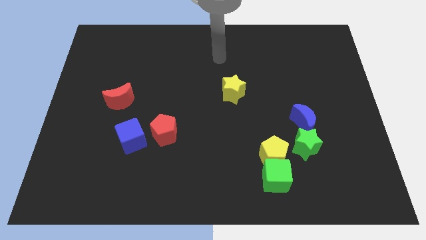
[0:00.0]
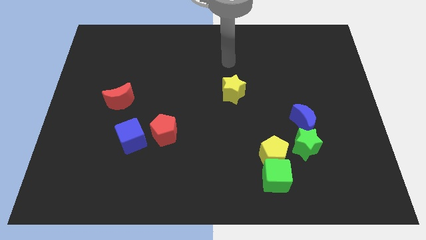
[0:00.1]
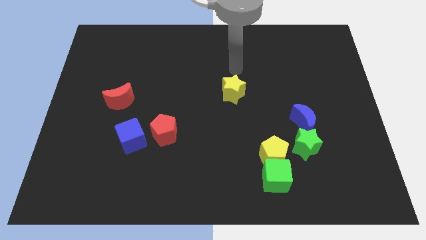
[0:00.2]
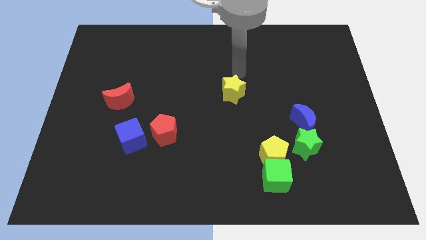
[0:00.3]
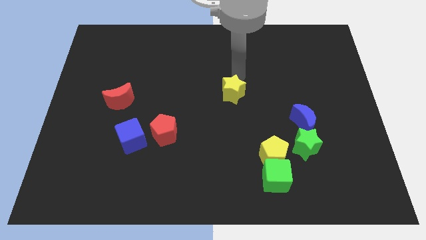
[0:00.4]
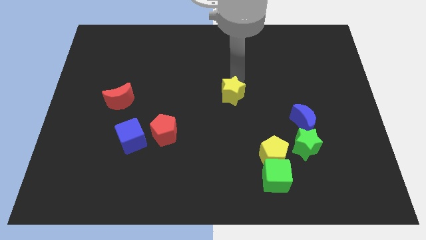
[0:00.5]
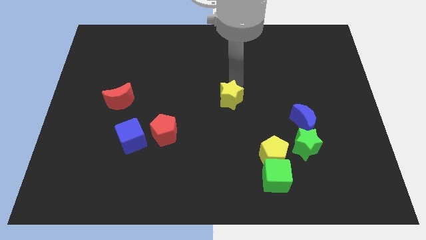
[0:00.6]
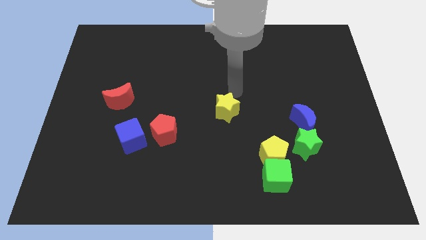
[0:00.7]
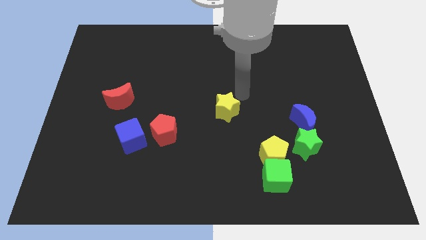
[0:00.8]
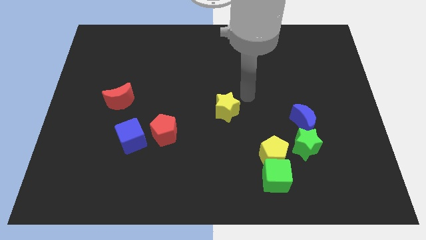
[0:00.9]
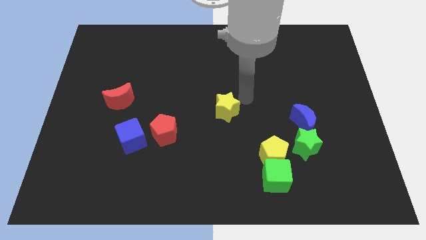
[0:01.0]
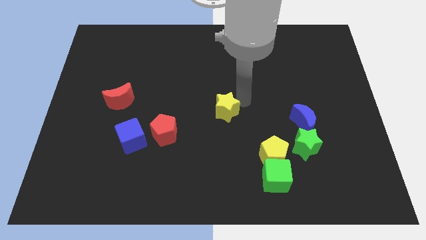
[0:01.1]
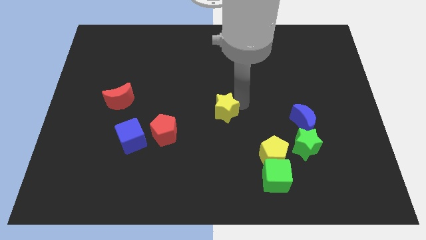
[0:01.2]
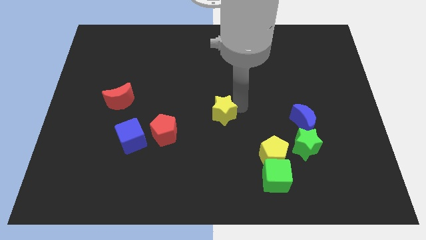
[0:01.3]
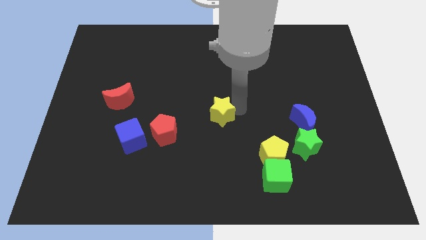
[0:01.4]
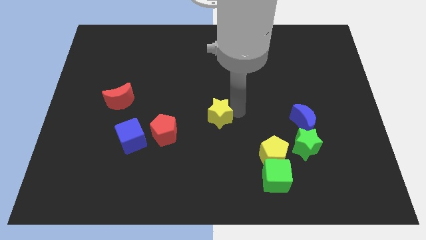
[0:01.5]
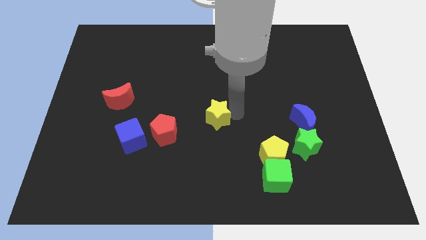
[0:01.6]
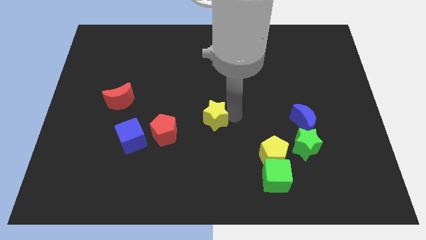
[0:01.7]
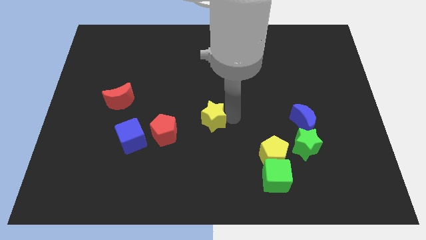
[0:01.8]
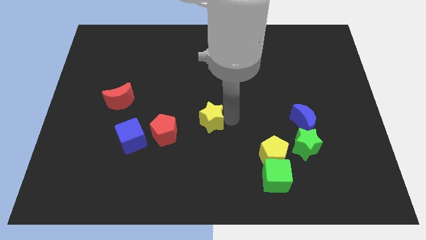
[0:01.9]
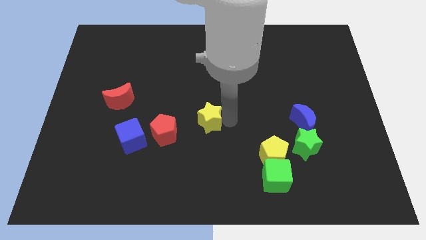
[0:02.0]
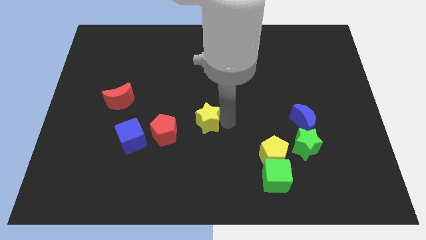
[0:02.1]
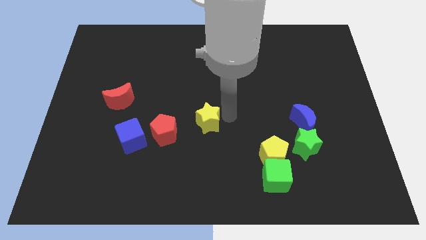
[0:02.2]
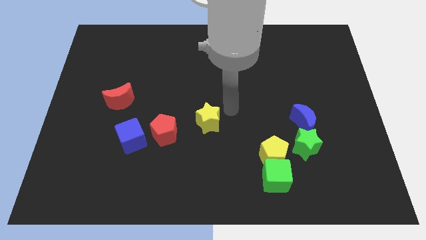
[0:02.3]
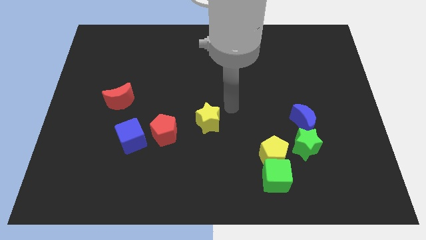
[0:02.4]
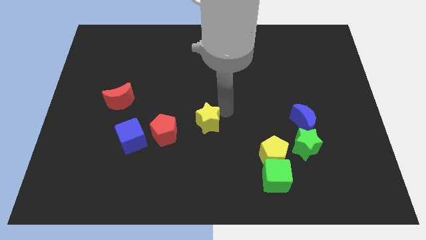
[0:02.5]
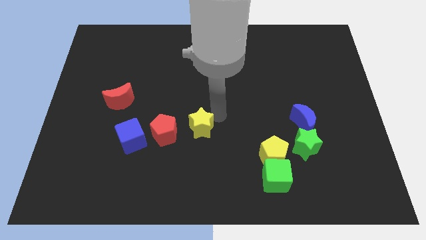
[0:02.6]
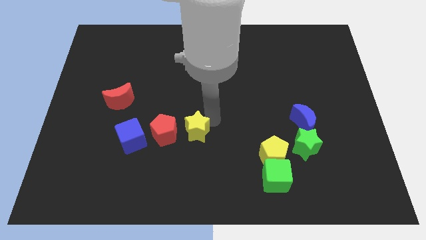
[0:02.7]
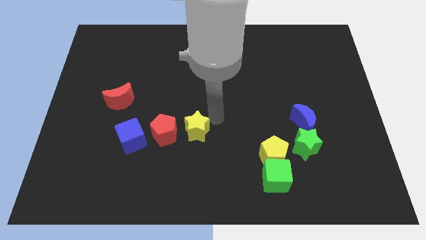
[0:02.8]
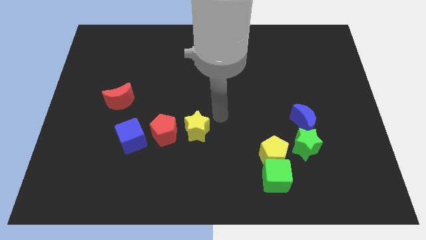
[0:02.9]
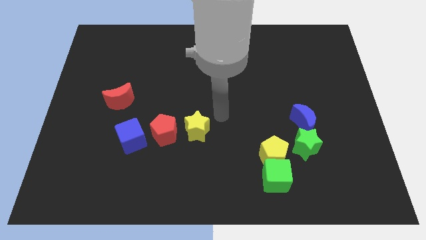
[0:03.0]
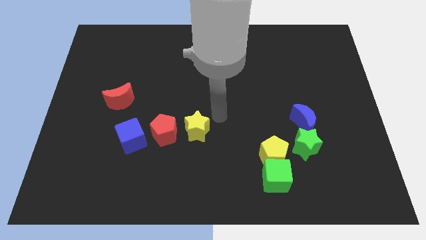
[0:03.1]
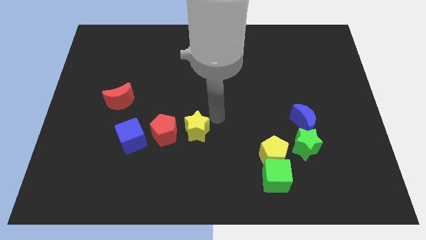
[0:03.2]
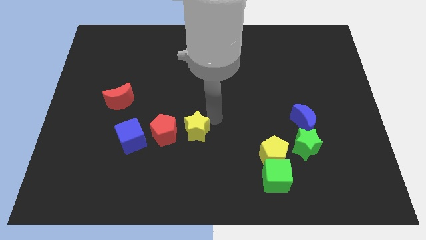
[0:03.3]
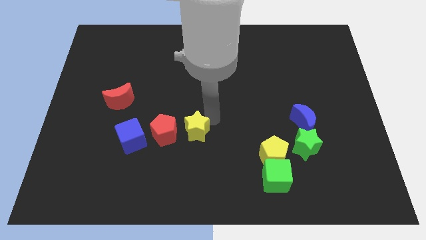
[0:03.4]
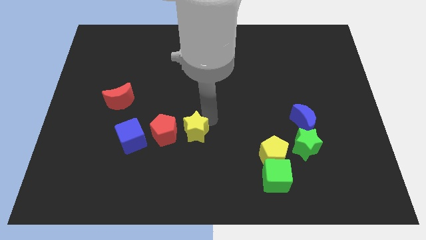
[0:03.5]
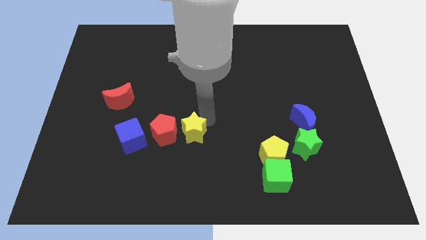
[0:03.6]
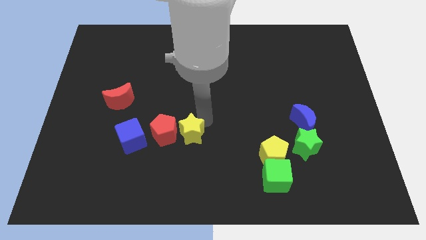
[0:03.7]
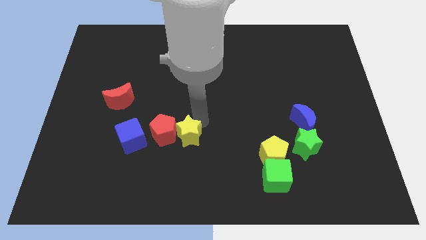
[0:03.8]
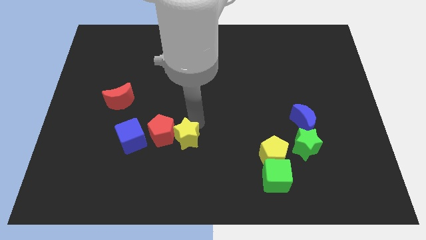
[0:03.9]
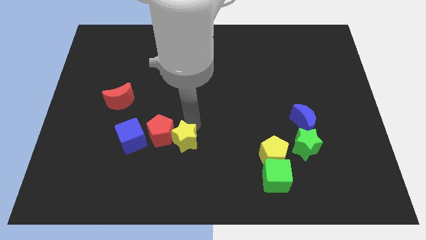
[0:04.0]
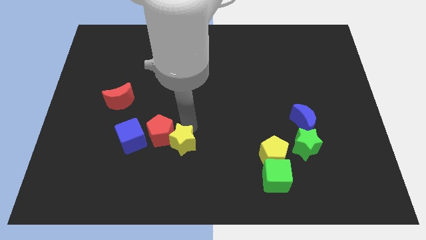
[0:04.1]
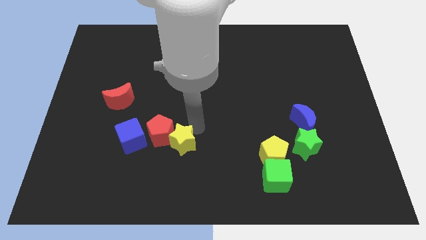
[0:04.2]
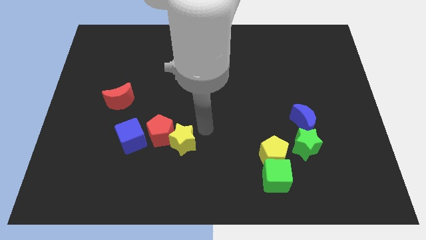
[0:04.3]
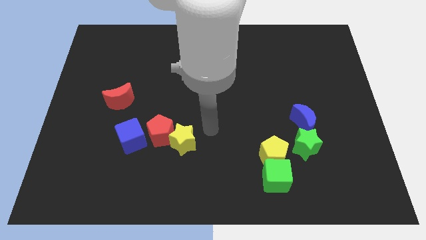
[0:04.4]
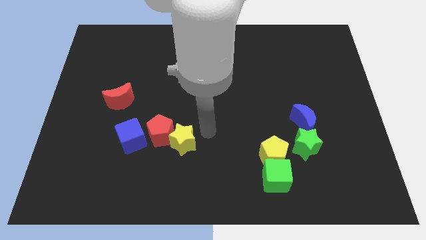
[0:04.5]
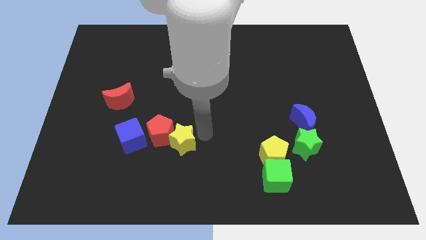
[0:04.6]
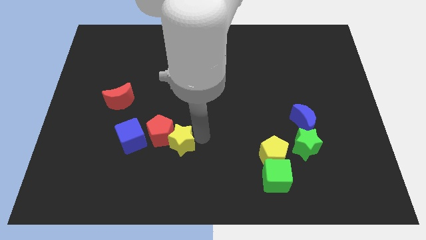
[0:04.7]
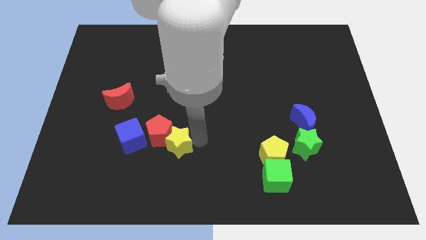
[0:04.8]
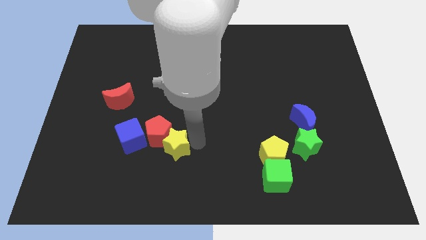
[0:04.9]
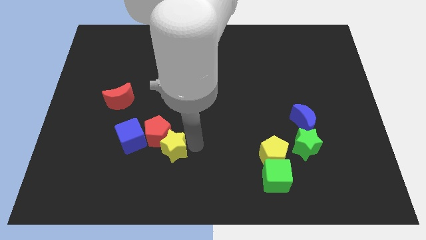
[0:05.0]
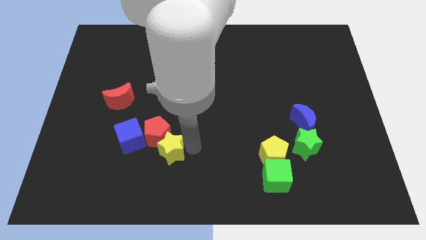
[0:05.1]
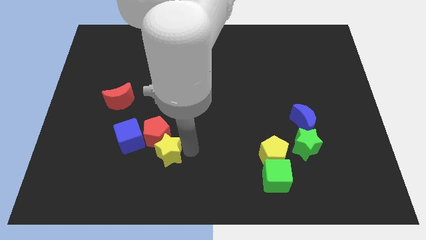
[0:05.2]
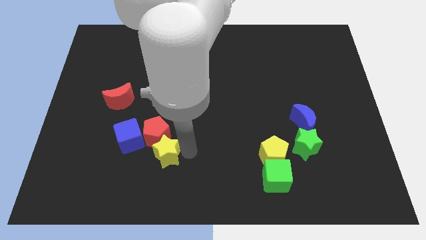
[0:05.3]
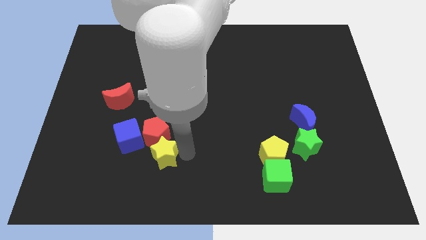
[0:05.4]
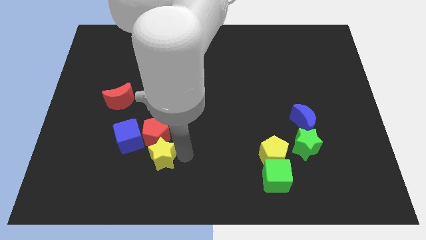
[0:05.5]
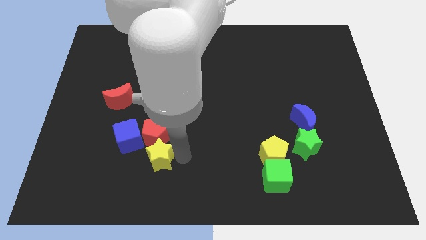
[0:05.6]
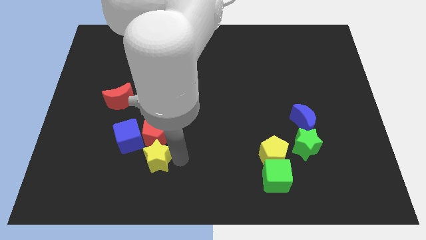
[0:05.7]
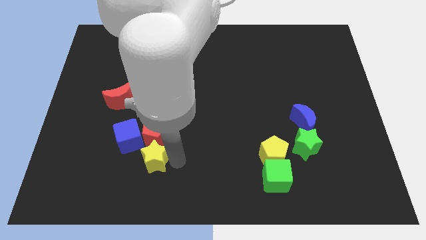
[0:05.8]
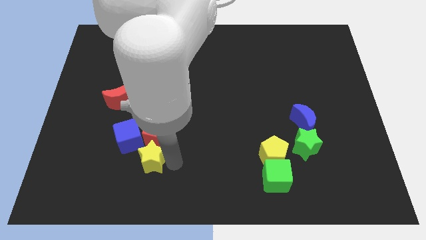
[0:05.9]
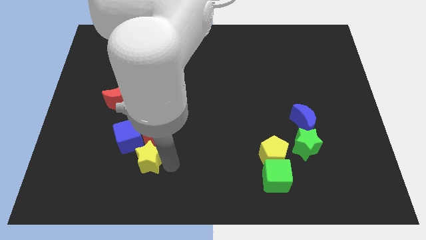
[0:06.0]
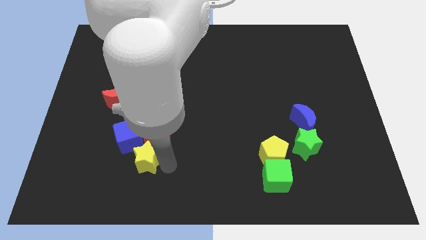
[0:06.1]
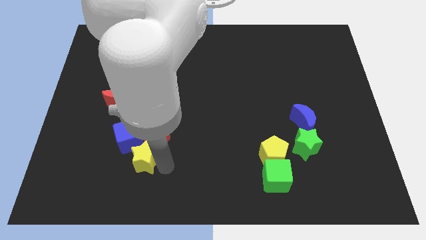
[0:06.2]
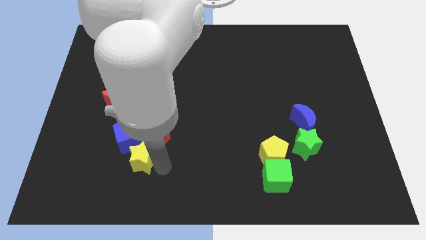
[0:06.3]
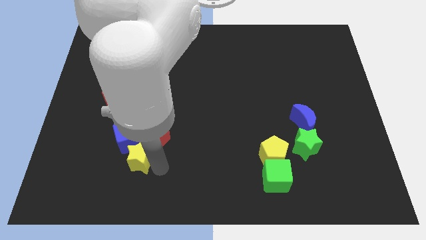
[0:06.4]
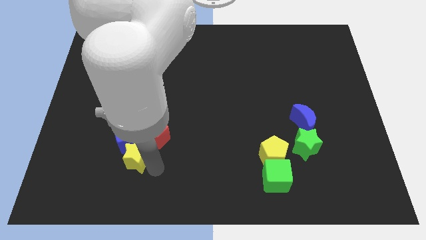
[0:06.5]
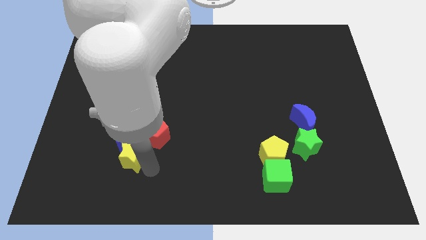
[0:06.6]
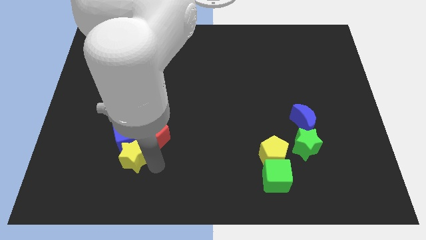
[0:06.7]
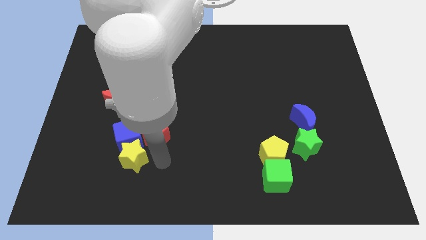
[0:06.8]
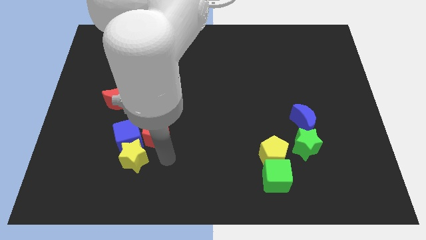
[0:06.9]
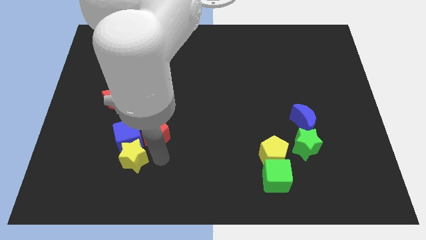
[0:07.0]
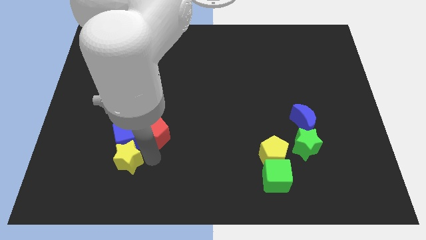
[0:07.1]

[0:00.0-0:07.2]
move the yellow star to the bottom left side of the blue cube
